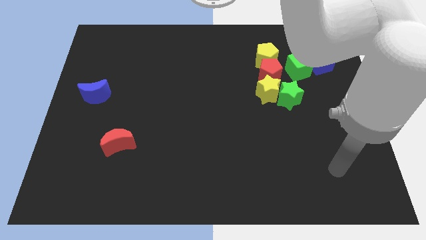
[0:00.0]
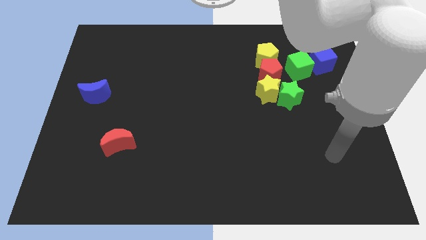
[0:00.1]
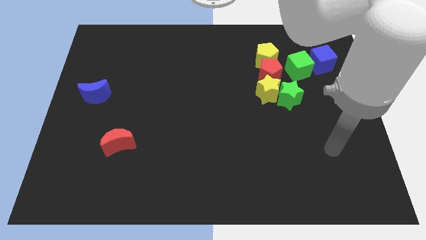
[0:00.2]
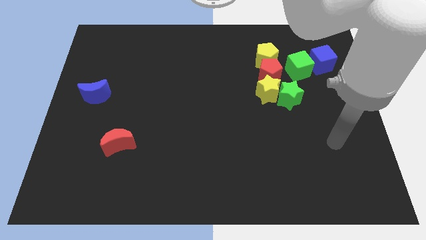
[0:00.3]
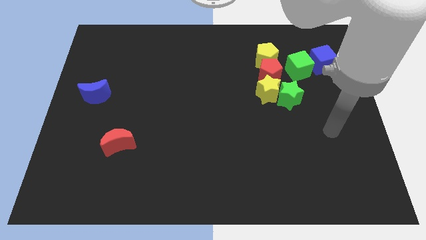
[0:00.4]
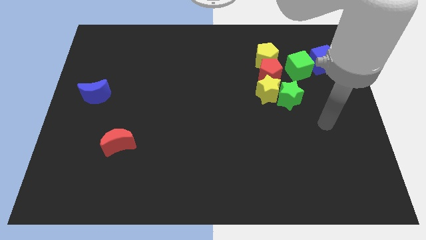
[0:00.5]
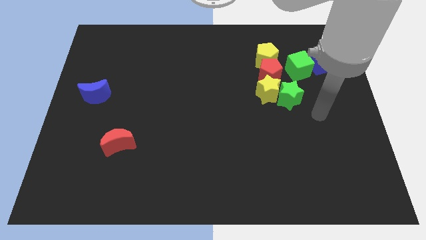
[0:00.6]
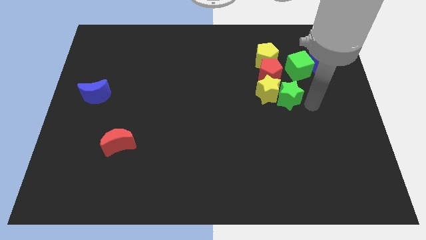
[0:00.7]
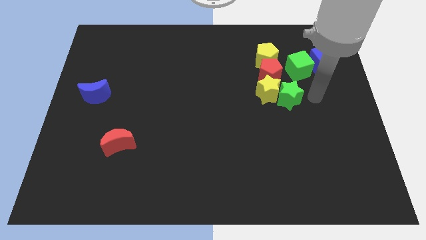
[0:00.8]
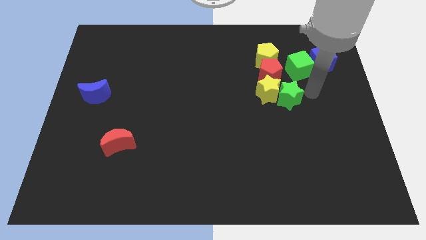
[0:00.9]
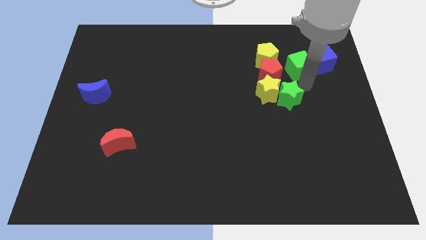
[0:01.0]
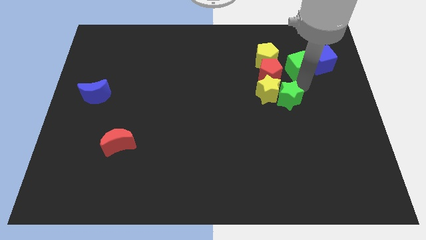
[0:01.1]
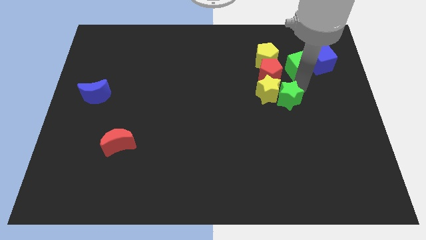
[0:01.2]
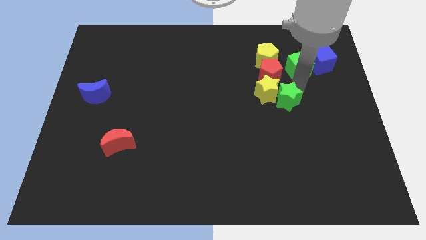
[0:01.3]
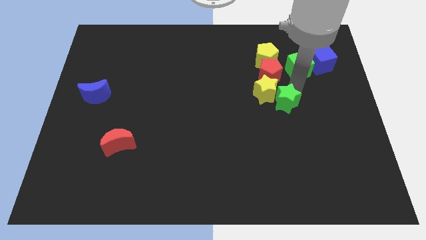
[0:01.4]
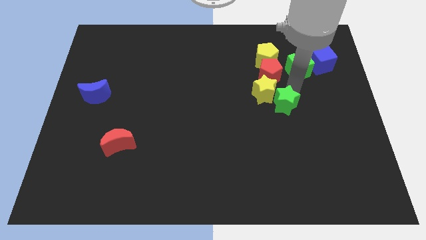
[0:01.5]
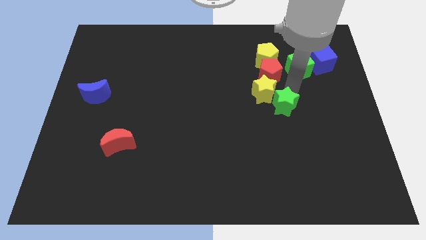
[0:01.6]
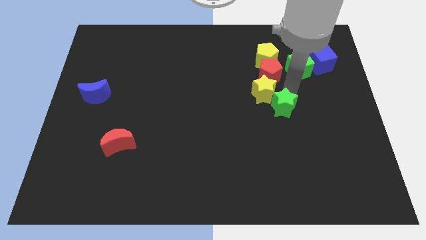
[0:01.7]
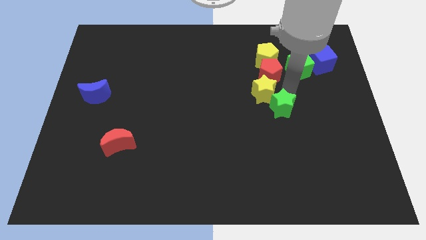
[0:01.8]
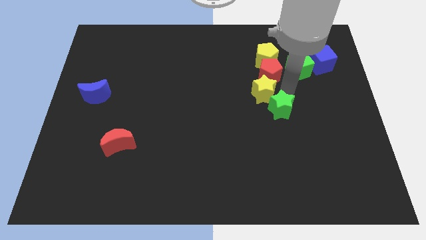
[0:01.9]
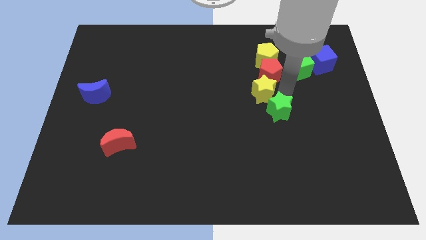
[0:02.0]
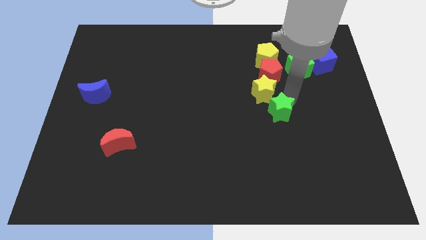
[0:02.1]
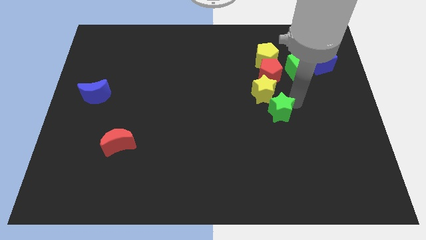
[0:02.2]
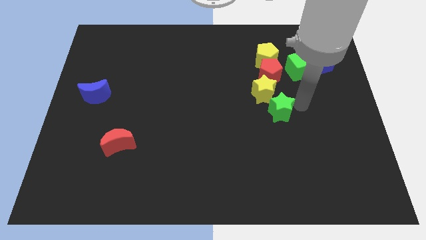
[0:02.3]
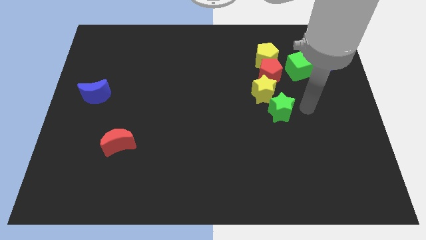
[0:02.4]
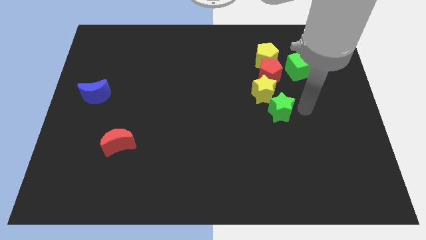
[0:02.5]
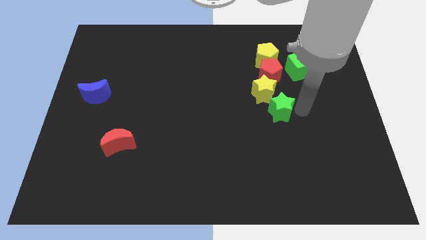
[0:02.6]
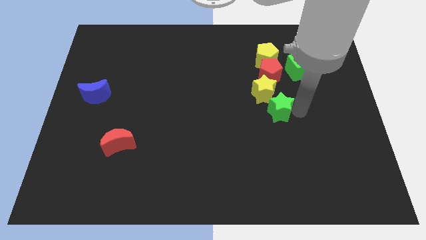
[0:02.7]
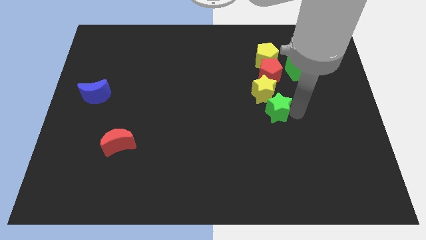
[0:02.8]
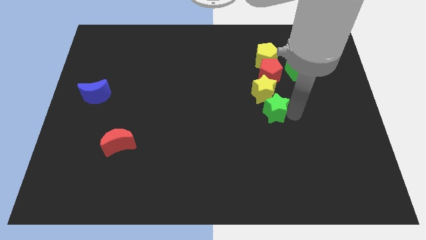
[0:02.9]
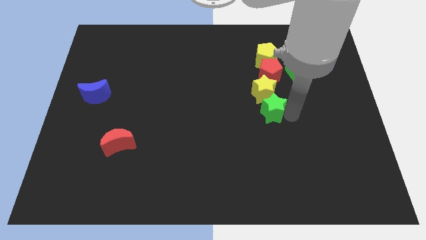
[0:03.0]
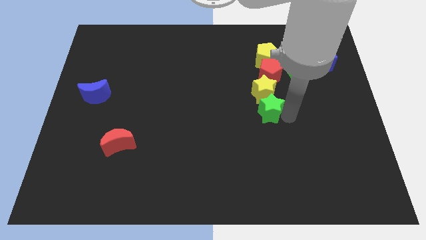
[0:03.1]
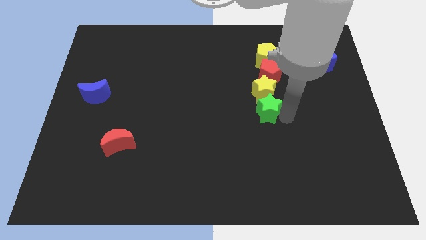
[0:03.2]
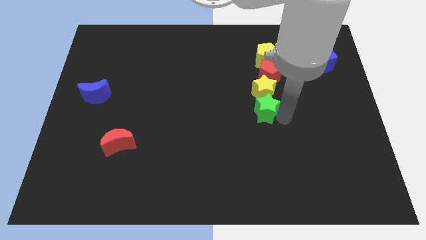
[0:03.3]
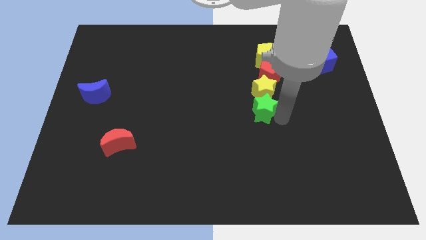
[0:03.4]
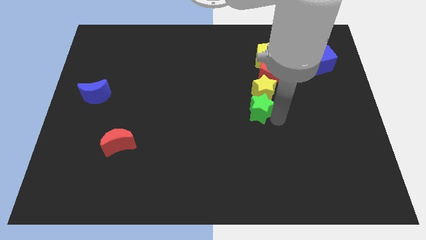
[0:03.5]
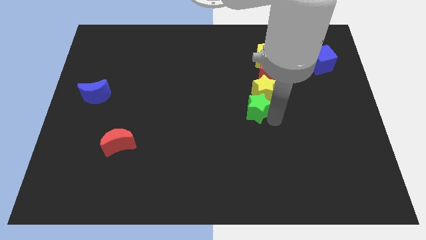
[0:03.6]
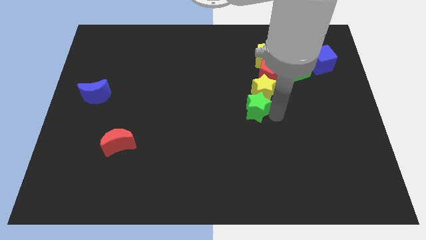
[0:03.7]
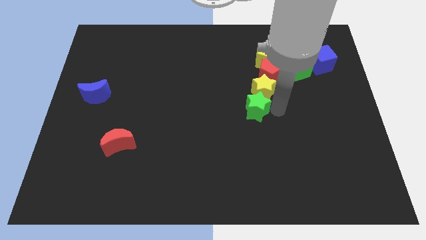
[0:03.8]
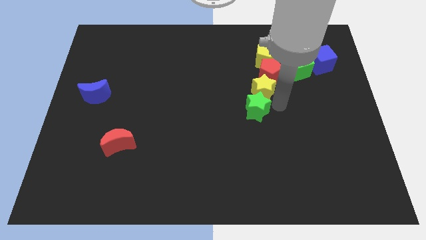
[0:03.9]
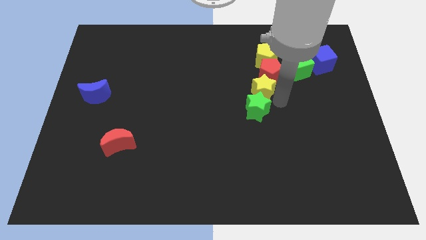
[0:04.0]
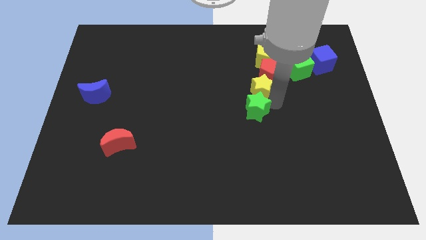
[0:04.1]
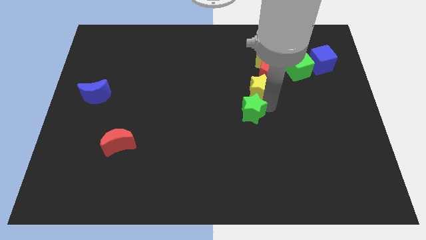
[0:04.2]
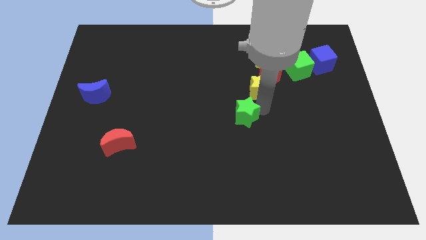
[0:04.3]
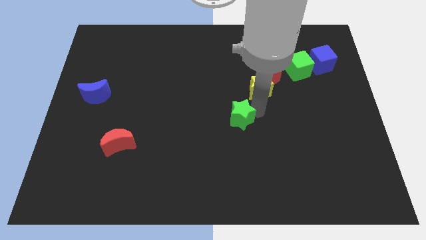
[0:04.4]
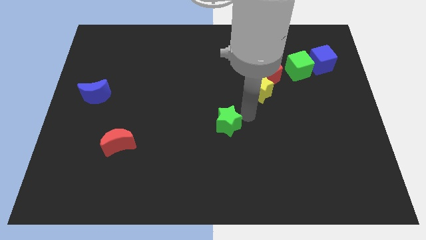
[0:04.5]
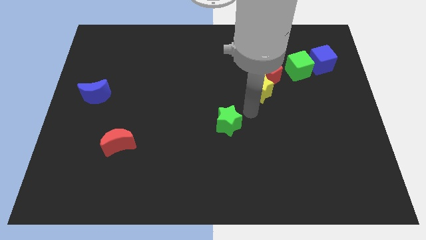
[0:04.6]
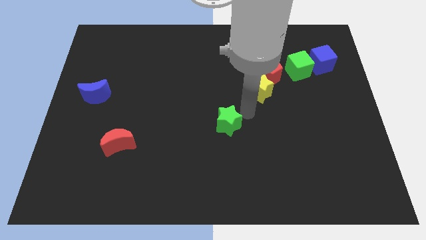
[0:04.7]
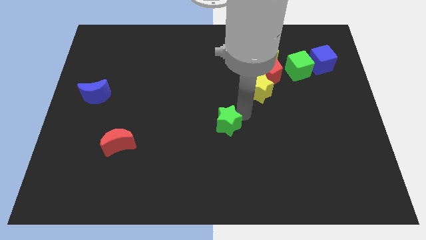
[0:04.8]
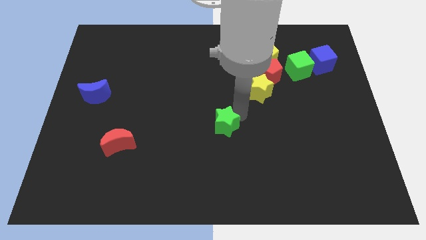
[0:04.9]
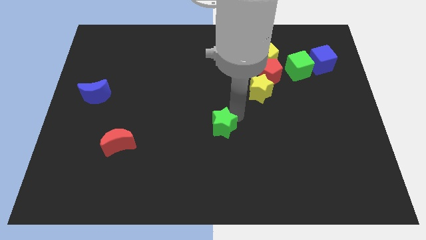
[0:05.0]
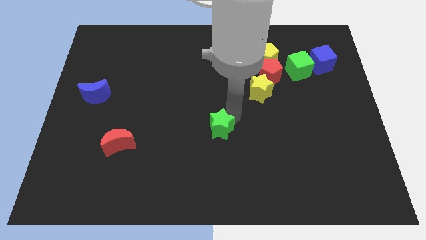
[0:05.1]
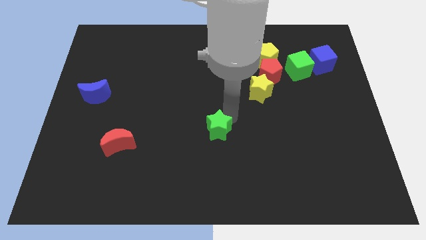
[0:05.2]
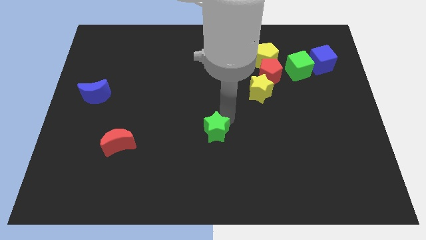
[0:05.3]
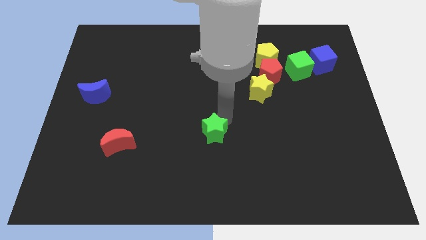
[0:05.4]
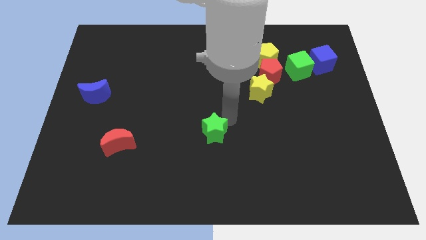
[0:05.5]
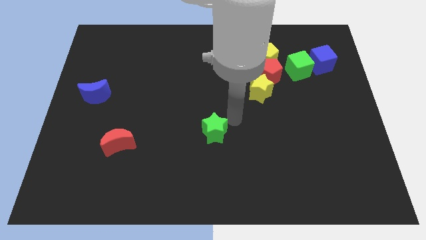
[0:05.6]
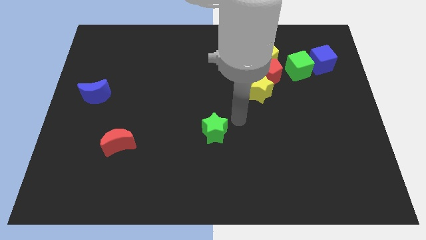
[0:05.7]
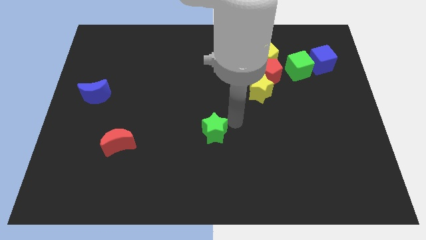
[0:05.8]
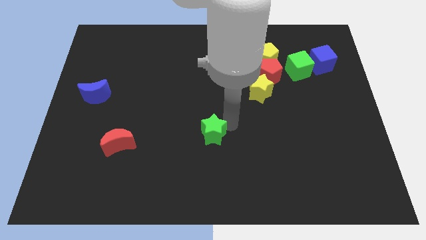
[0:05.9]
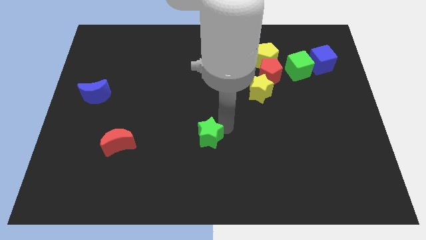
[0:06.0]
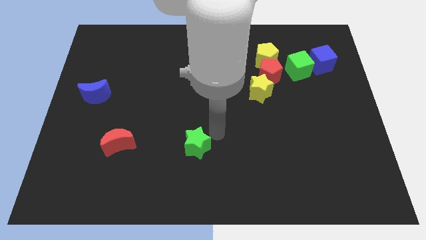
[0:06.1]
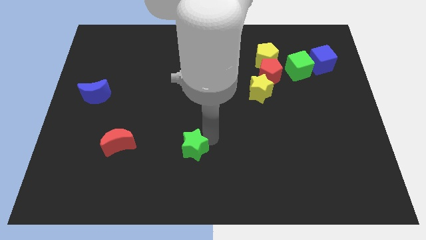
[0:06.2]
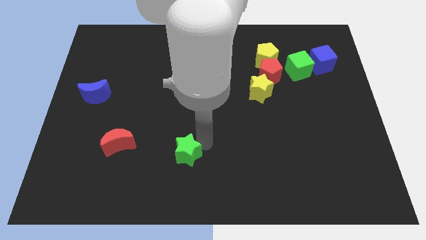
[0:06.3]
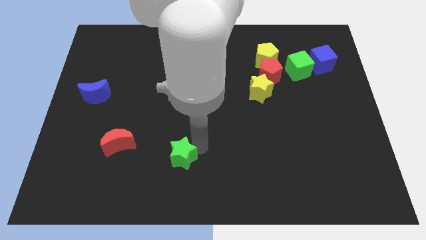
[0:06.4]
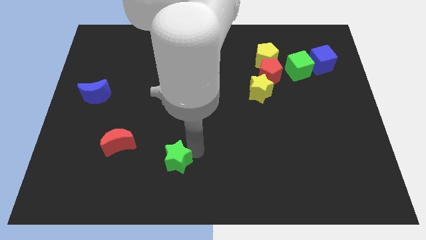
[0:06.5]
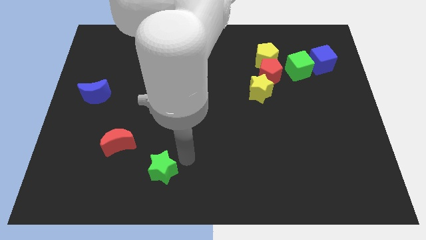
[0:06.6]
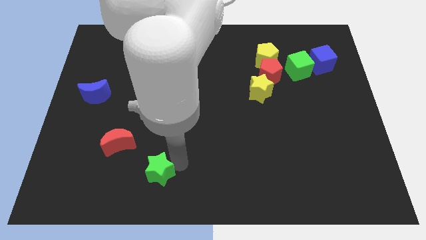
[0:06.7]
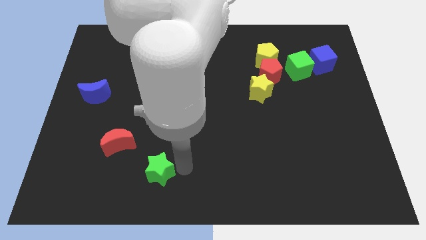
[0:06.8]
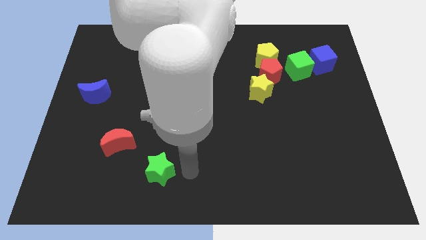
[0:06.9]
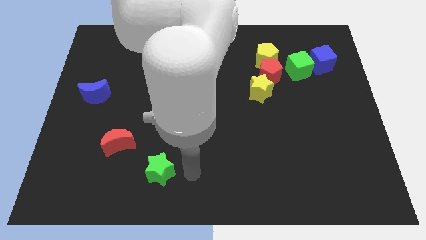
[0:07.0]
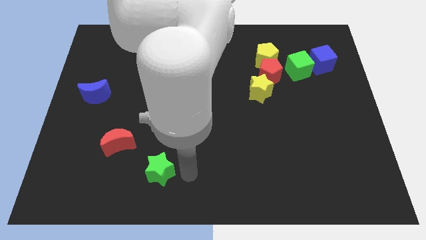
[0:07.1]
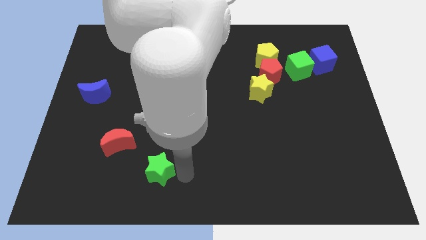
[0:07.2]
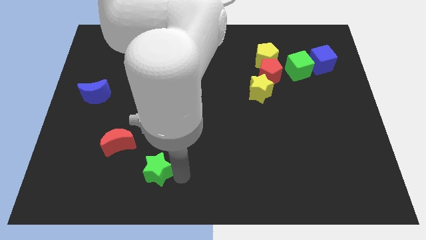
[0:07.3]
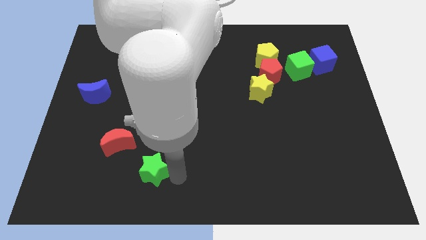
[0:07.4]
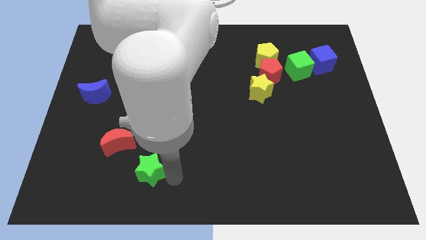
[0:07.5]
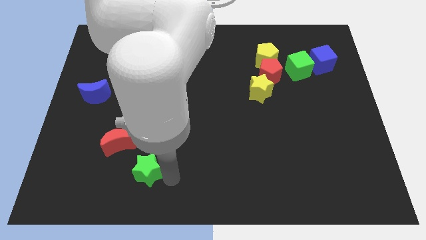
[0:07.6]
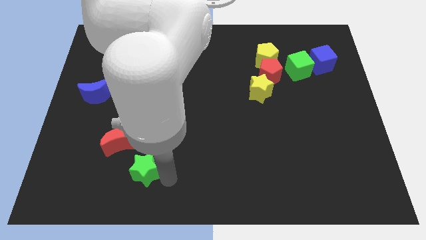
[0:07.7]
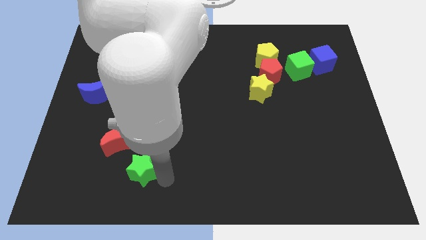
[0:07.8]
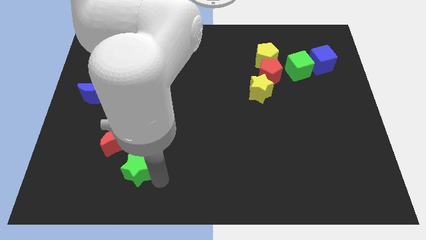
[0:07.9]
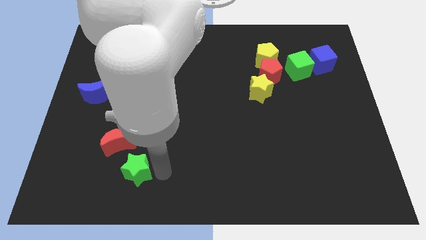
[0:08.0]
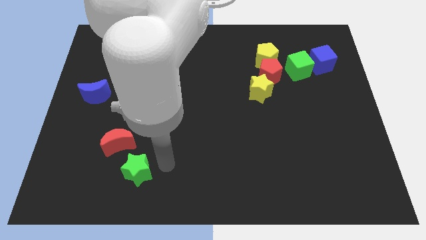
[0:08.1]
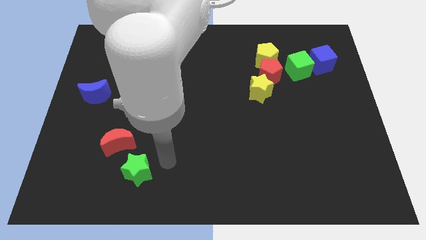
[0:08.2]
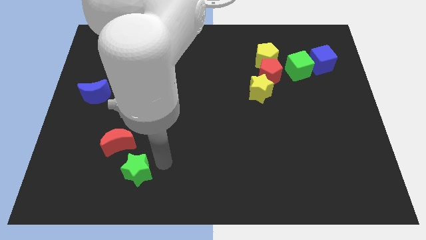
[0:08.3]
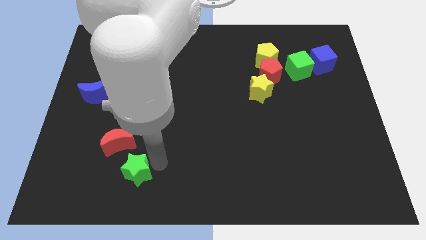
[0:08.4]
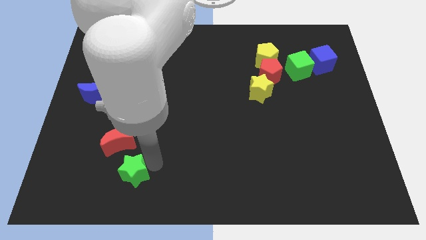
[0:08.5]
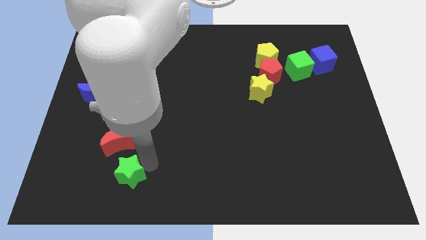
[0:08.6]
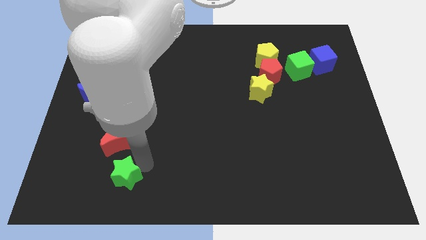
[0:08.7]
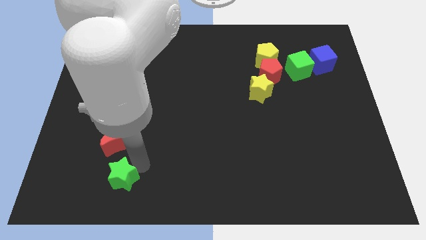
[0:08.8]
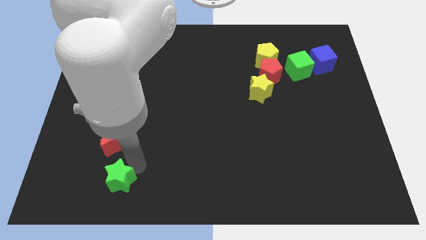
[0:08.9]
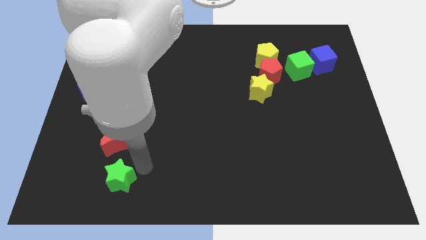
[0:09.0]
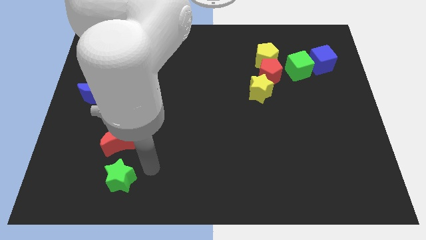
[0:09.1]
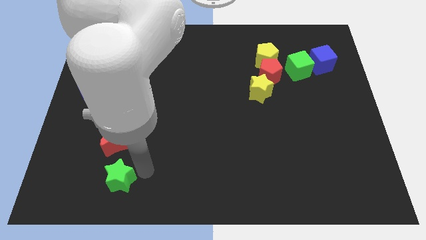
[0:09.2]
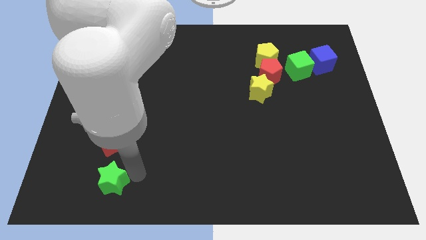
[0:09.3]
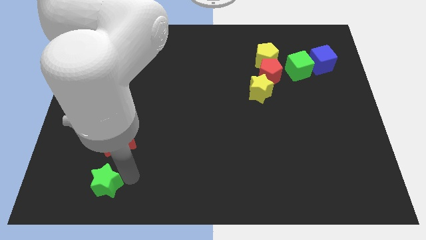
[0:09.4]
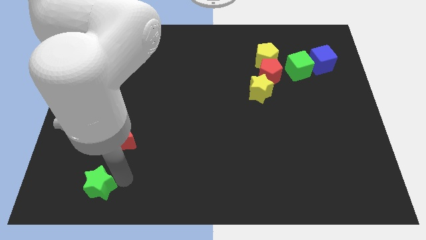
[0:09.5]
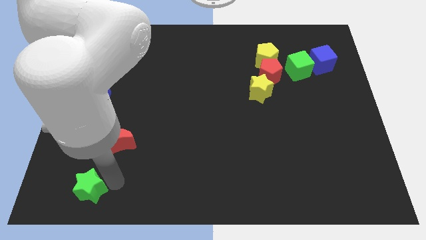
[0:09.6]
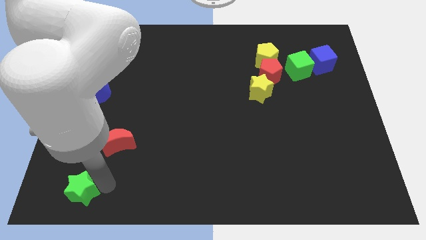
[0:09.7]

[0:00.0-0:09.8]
put the green star to the lower left corner
